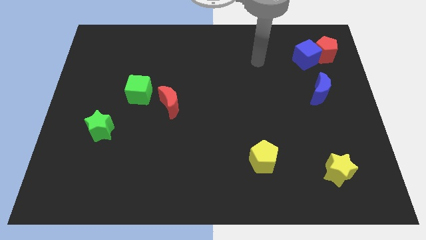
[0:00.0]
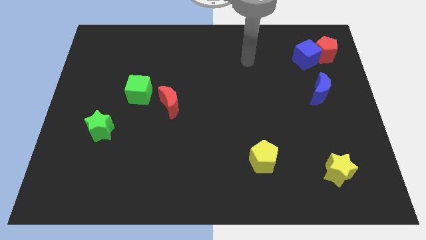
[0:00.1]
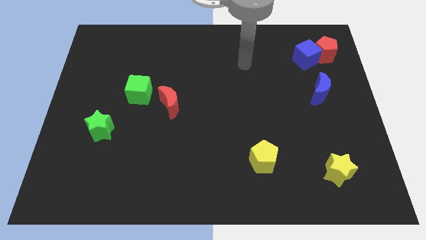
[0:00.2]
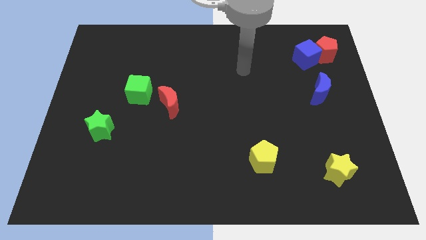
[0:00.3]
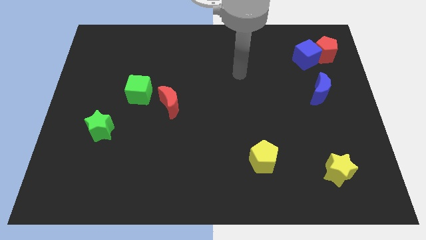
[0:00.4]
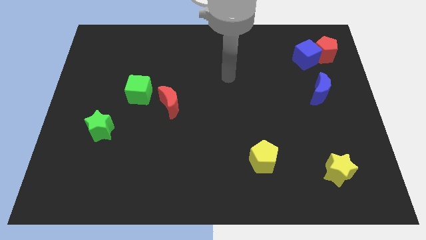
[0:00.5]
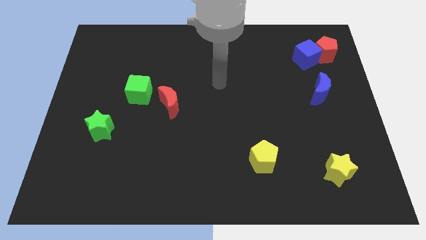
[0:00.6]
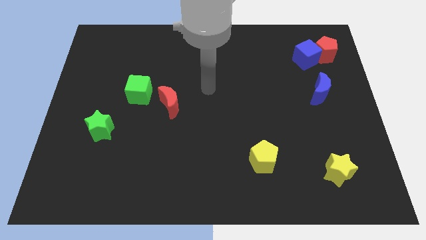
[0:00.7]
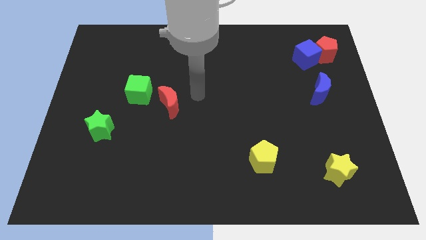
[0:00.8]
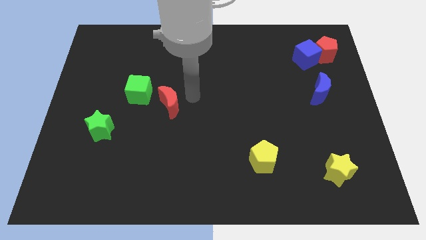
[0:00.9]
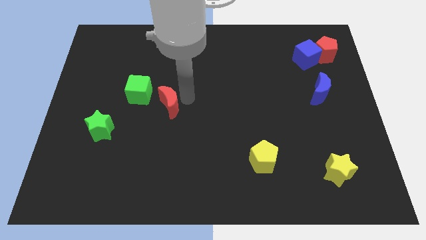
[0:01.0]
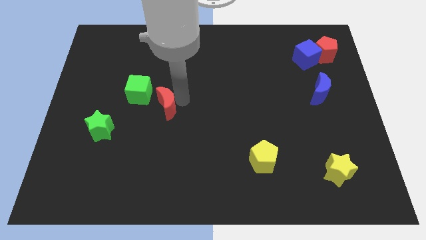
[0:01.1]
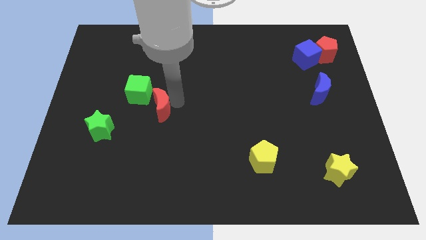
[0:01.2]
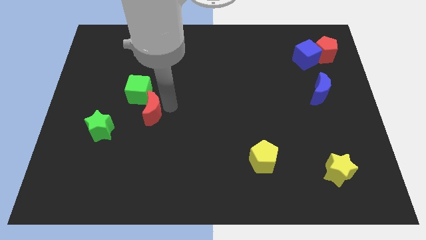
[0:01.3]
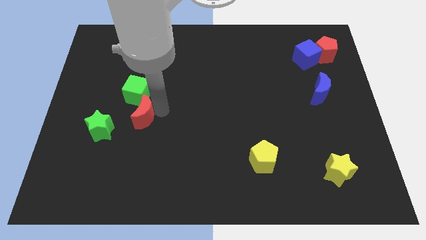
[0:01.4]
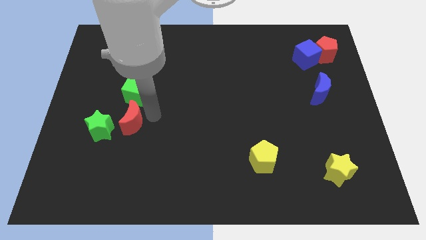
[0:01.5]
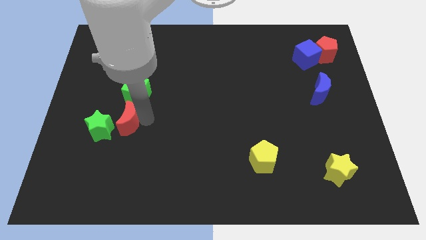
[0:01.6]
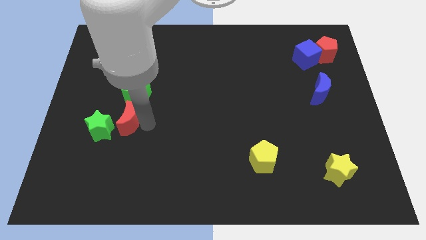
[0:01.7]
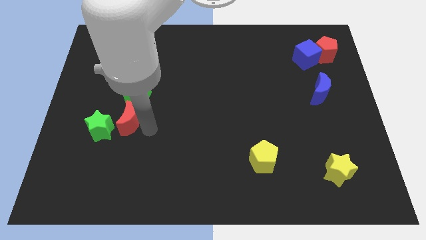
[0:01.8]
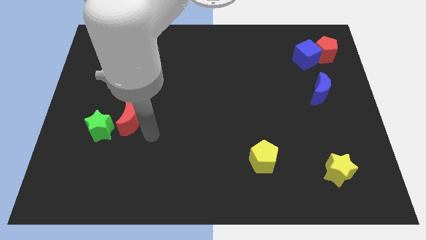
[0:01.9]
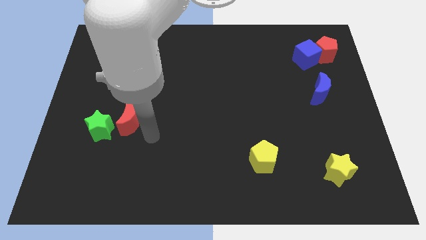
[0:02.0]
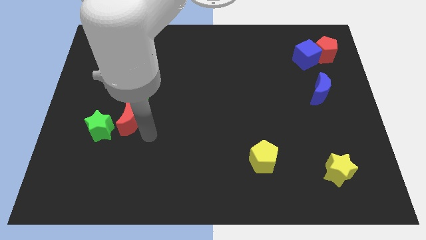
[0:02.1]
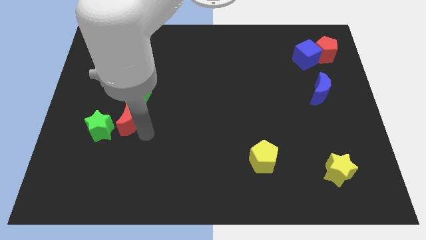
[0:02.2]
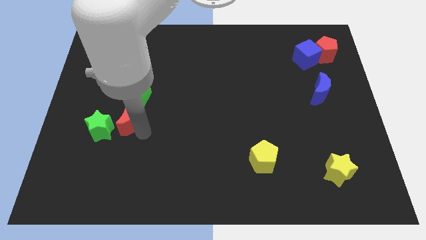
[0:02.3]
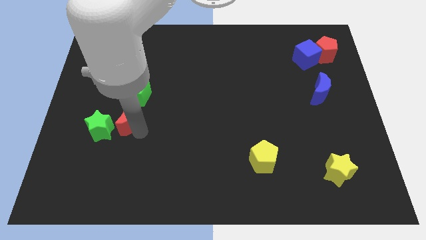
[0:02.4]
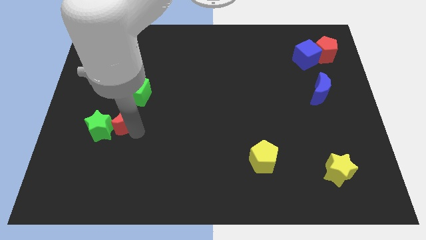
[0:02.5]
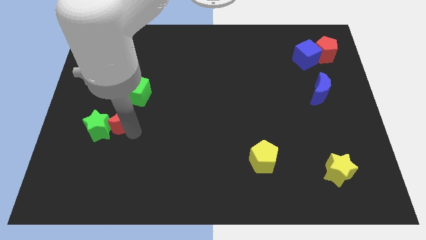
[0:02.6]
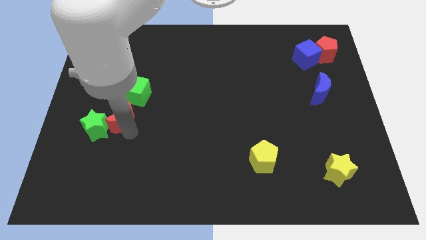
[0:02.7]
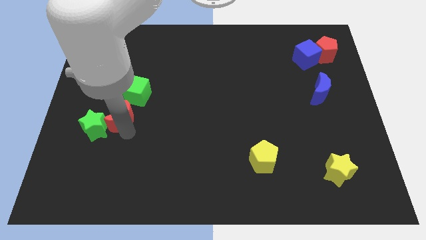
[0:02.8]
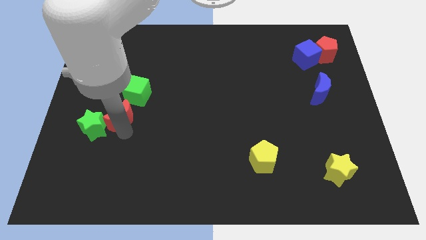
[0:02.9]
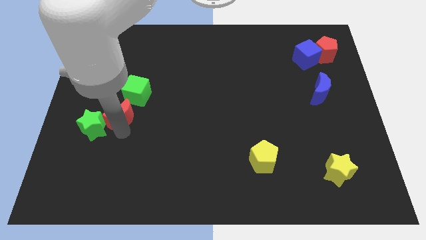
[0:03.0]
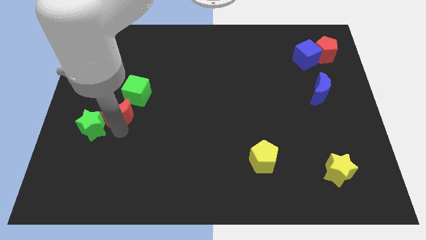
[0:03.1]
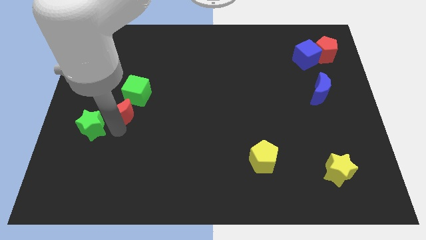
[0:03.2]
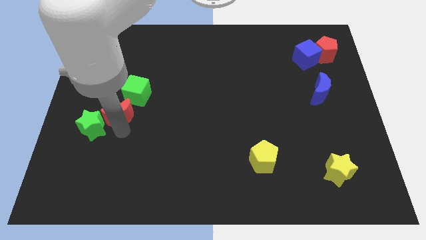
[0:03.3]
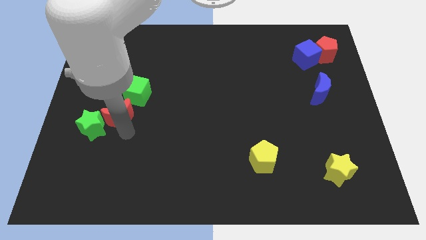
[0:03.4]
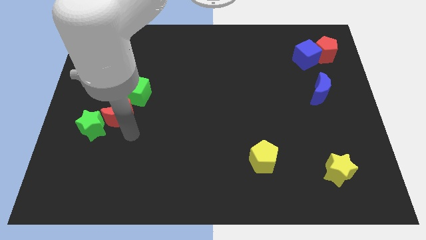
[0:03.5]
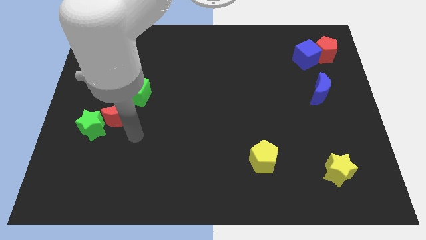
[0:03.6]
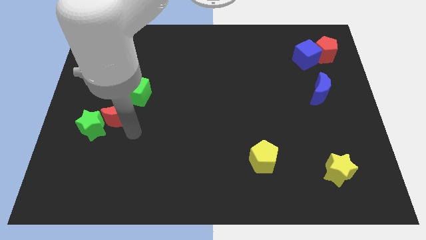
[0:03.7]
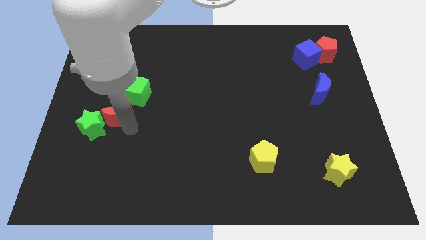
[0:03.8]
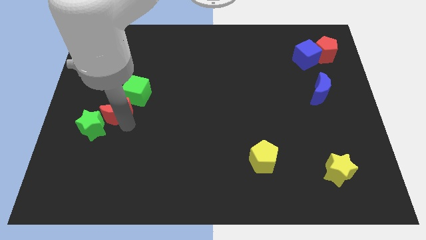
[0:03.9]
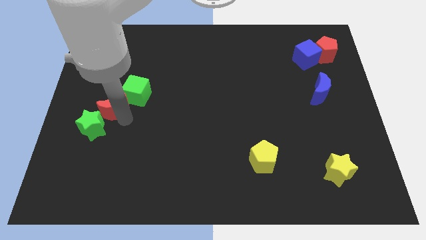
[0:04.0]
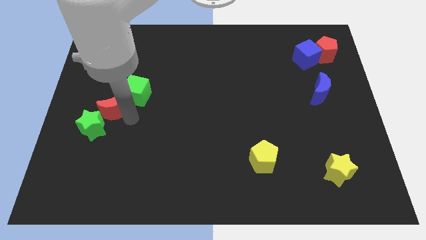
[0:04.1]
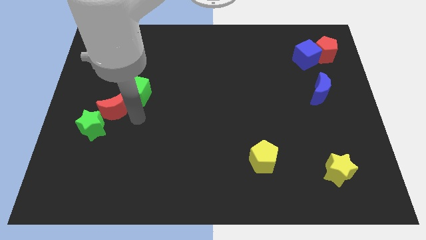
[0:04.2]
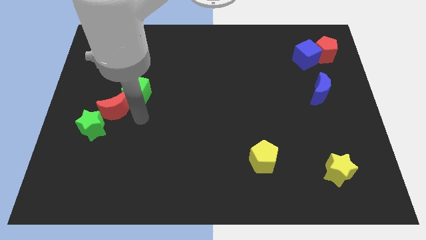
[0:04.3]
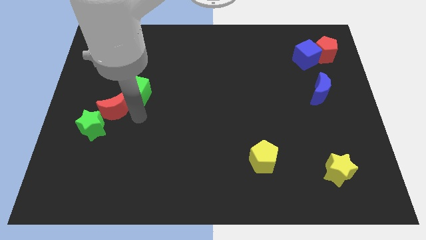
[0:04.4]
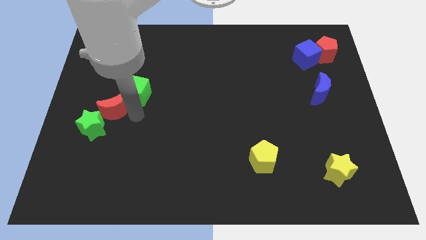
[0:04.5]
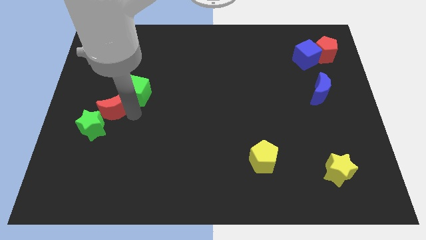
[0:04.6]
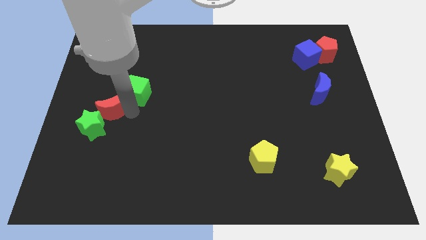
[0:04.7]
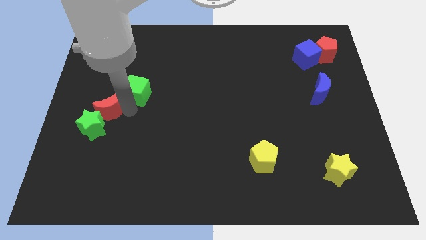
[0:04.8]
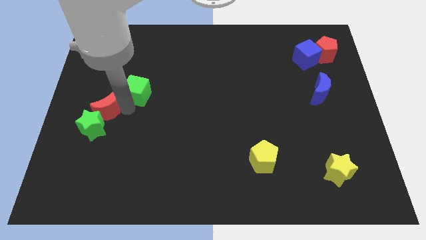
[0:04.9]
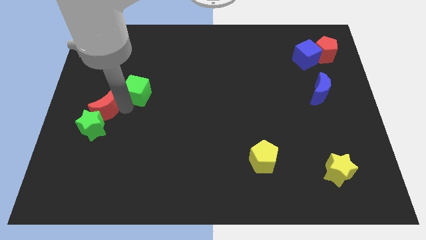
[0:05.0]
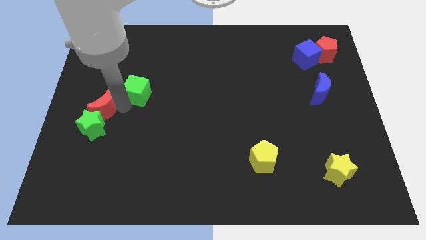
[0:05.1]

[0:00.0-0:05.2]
push the red moon to the left side

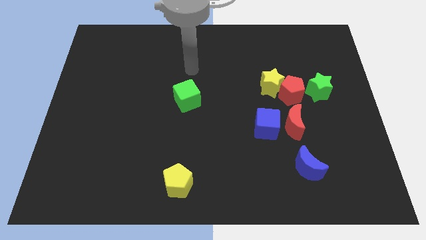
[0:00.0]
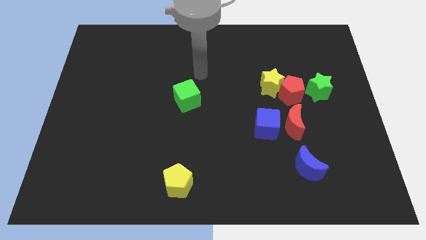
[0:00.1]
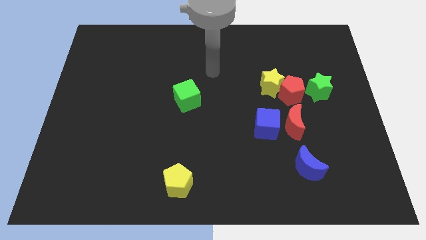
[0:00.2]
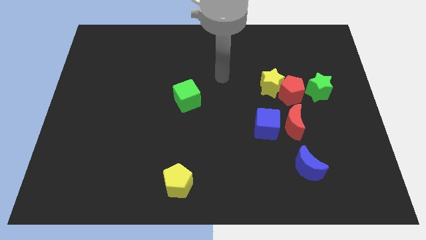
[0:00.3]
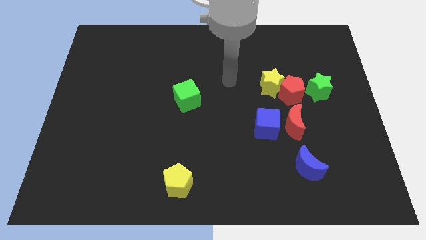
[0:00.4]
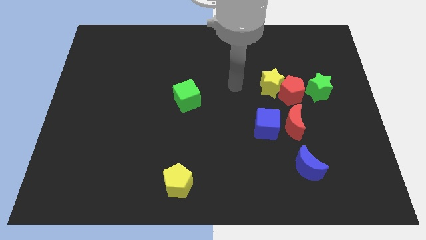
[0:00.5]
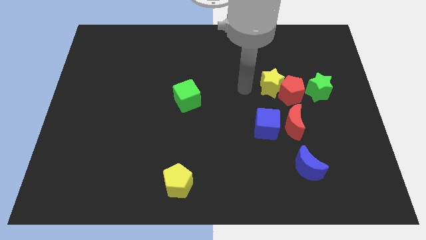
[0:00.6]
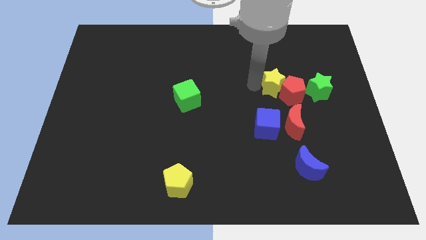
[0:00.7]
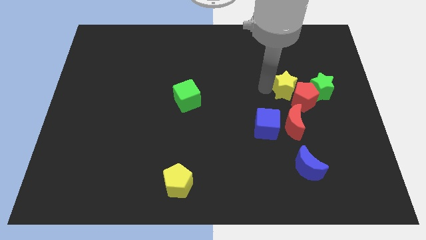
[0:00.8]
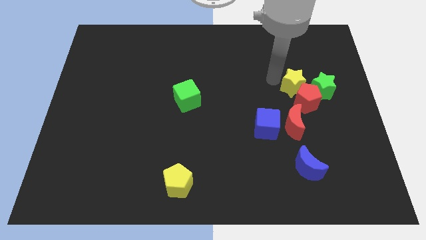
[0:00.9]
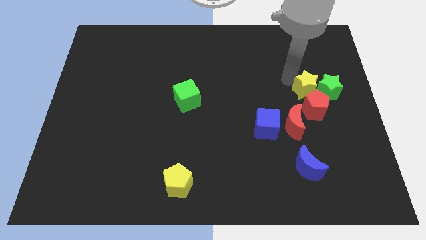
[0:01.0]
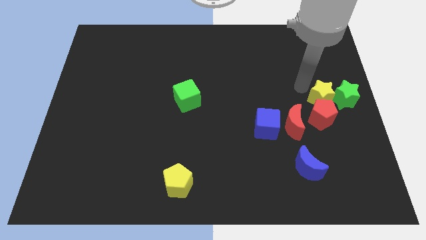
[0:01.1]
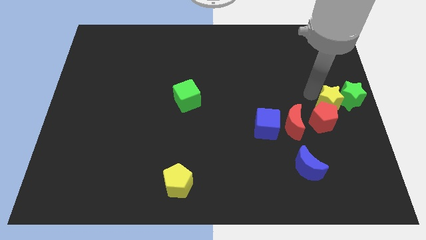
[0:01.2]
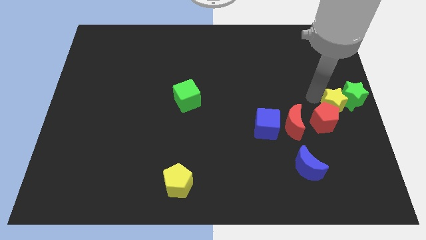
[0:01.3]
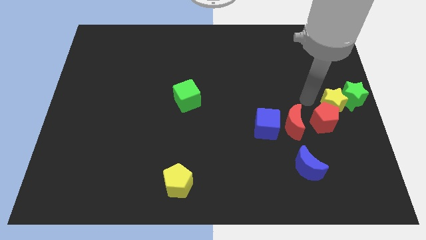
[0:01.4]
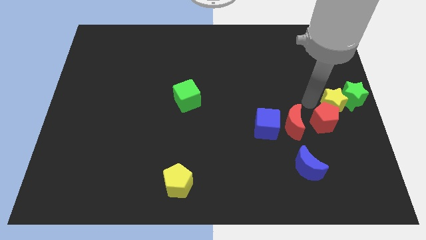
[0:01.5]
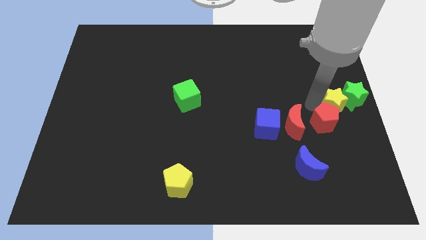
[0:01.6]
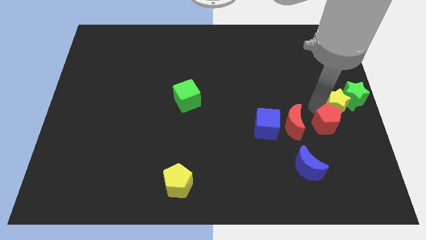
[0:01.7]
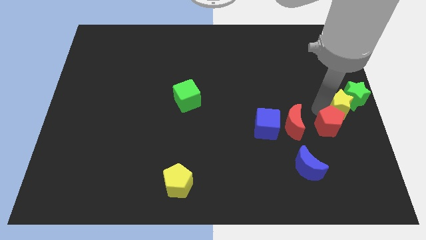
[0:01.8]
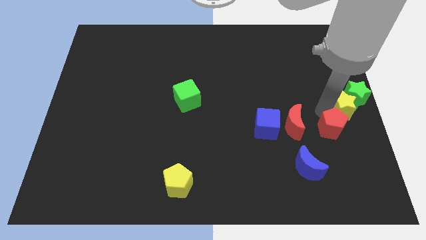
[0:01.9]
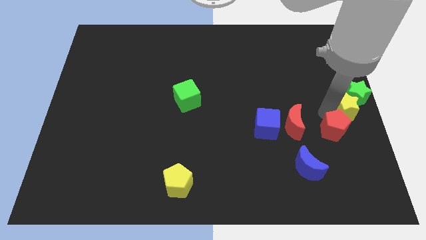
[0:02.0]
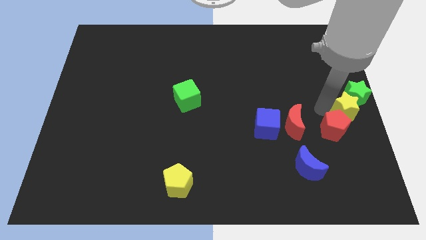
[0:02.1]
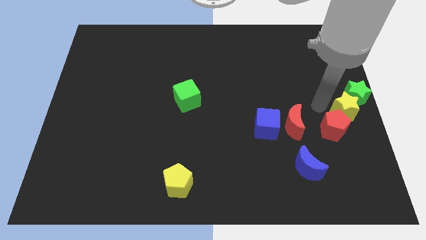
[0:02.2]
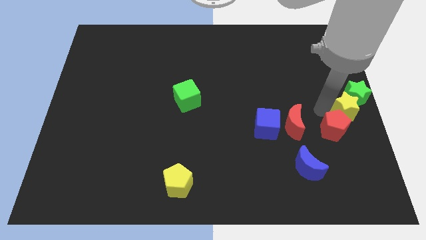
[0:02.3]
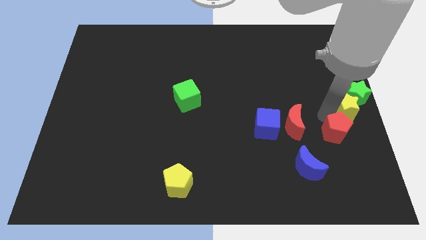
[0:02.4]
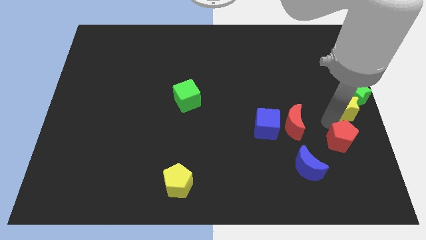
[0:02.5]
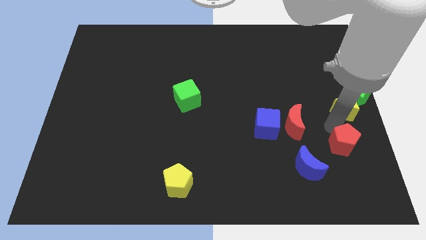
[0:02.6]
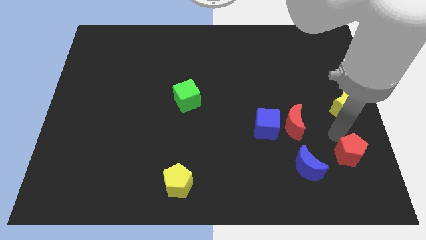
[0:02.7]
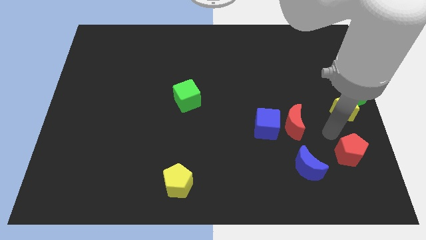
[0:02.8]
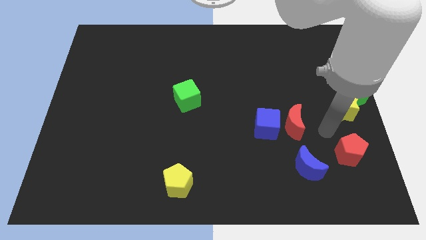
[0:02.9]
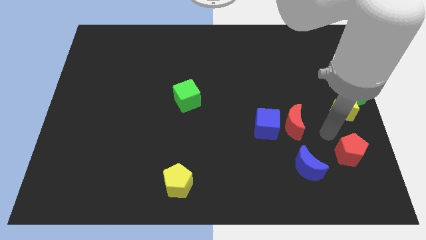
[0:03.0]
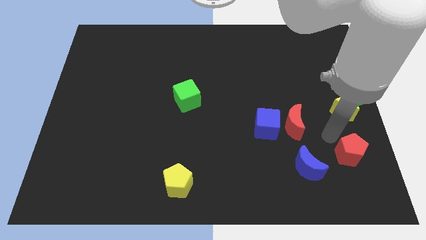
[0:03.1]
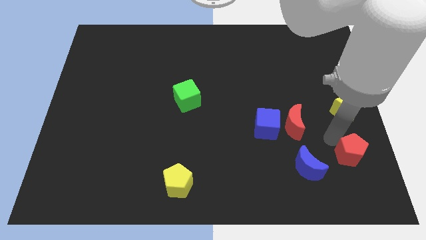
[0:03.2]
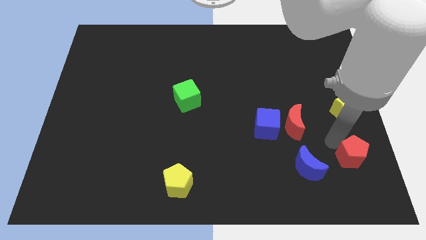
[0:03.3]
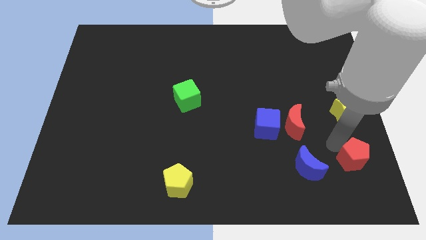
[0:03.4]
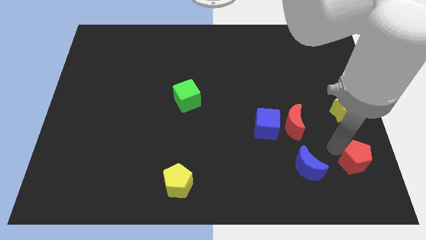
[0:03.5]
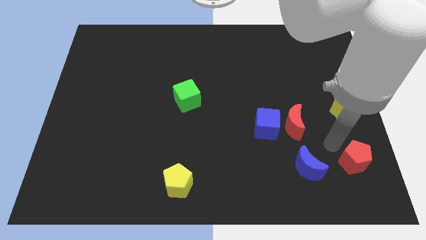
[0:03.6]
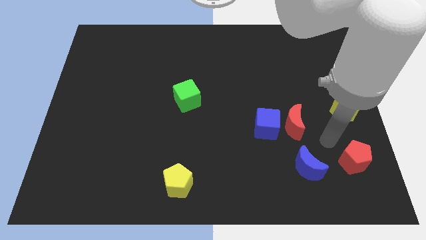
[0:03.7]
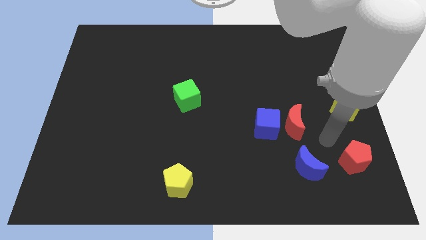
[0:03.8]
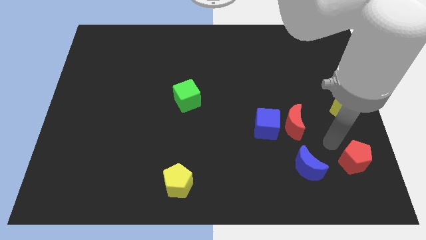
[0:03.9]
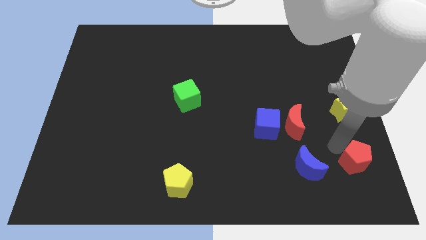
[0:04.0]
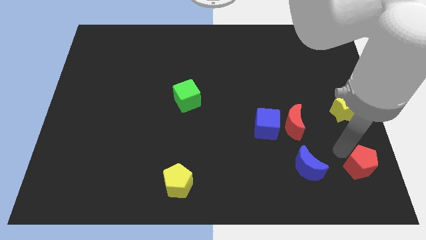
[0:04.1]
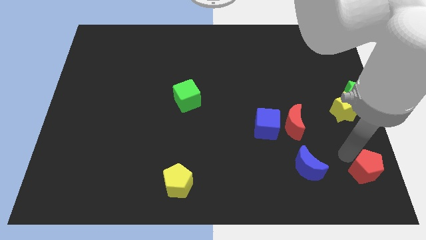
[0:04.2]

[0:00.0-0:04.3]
slide the red pentagon to the bottom right of the board
